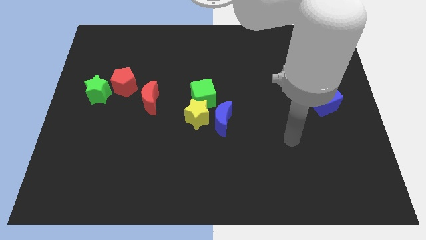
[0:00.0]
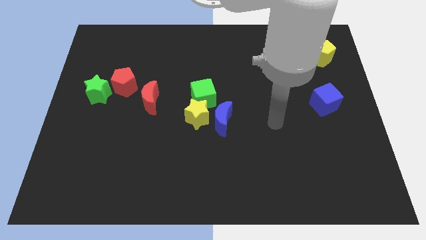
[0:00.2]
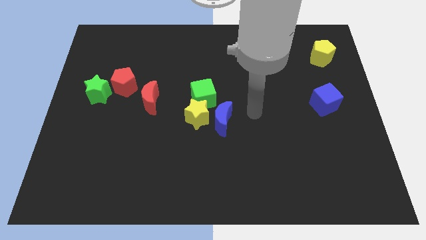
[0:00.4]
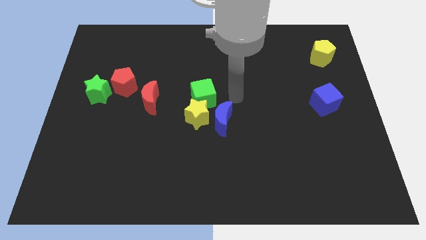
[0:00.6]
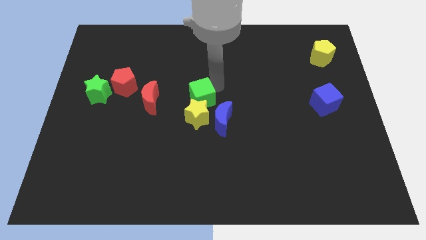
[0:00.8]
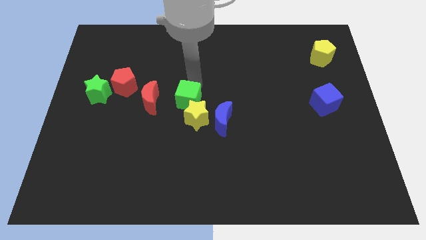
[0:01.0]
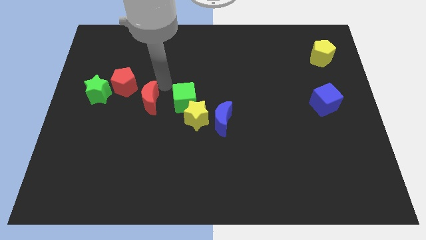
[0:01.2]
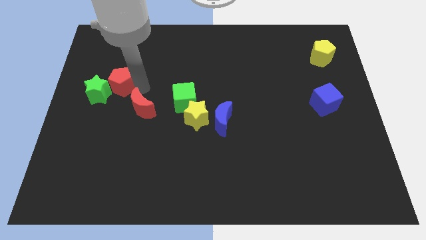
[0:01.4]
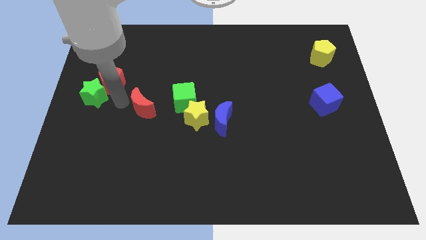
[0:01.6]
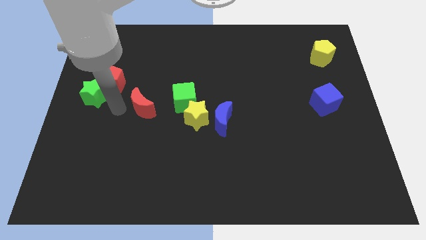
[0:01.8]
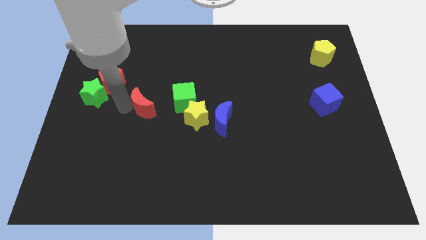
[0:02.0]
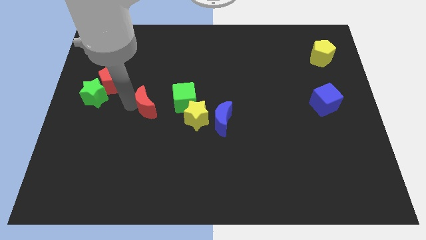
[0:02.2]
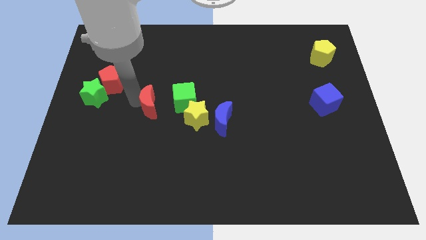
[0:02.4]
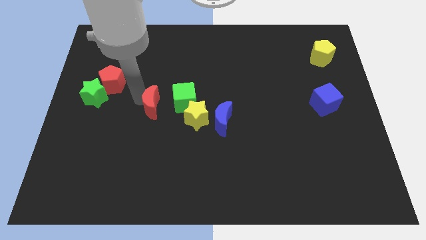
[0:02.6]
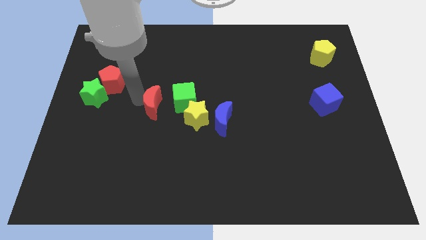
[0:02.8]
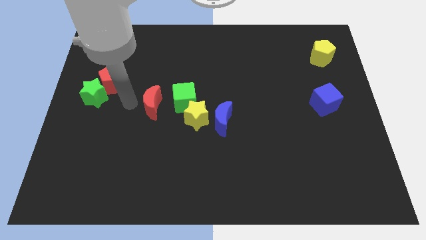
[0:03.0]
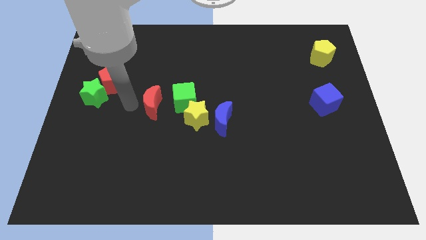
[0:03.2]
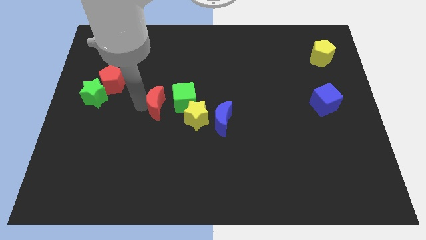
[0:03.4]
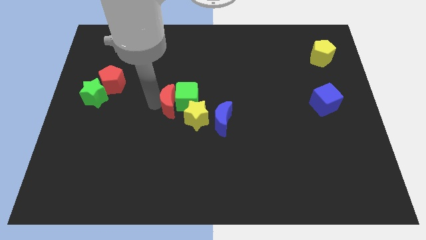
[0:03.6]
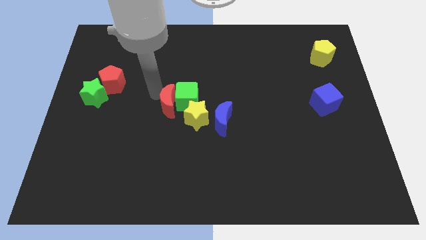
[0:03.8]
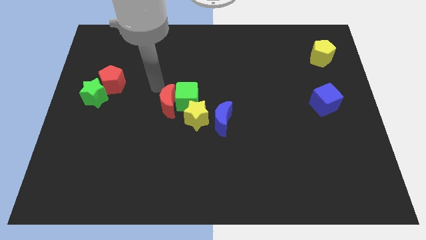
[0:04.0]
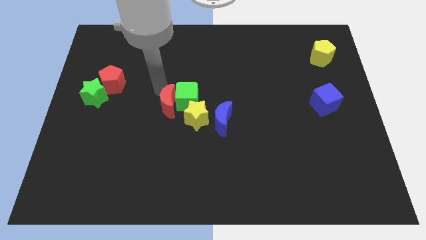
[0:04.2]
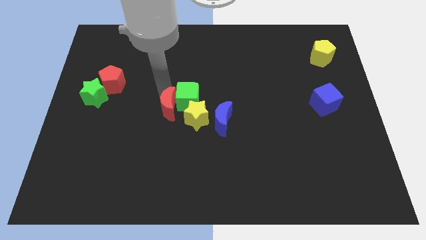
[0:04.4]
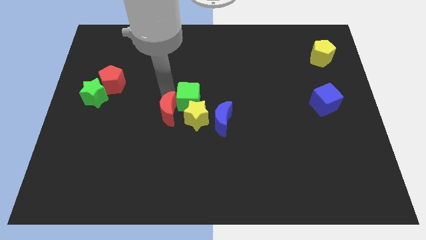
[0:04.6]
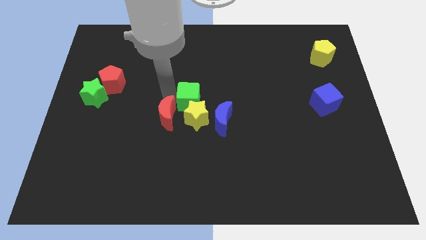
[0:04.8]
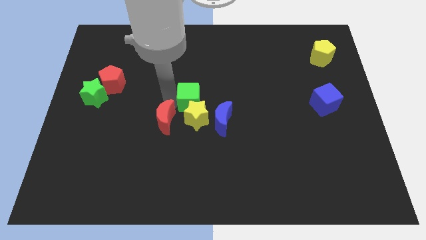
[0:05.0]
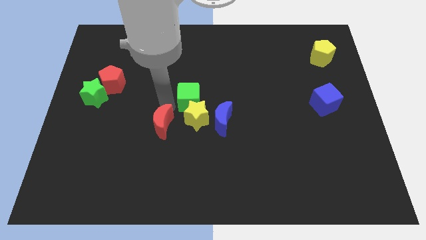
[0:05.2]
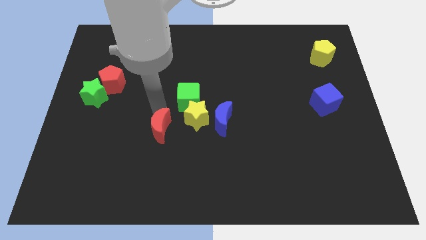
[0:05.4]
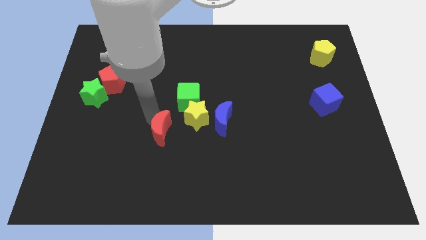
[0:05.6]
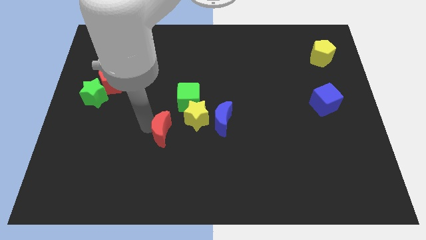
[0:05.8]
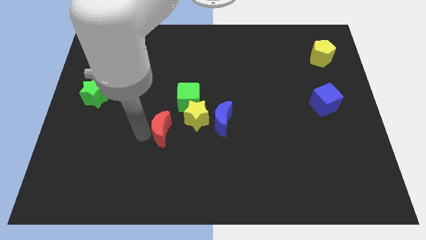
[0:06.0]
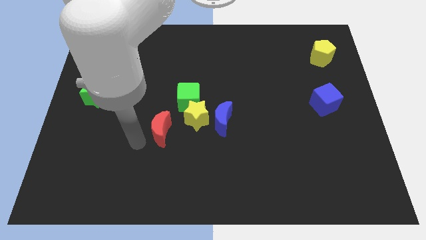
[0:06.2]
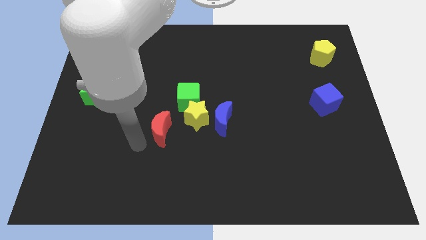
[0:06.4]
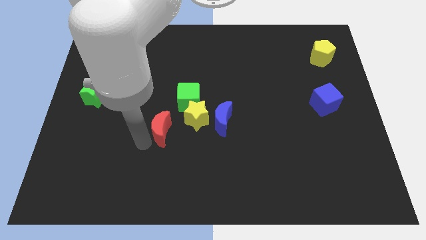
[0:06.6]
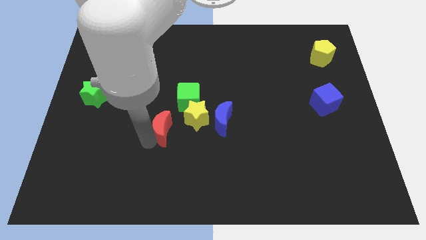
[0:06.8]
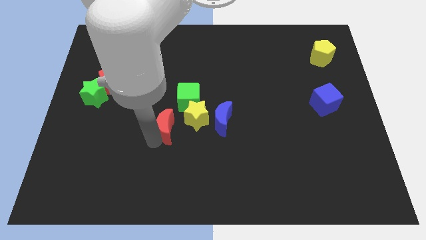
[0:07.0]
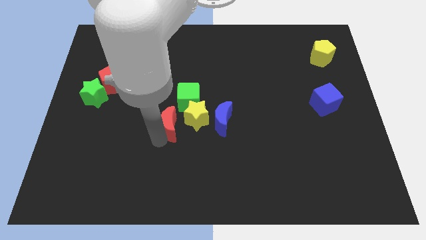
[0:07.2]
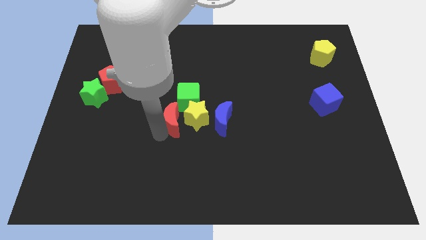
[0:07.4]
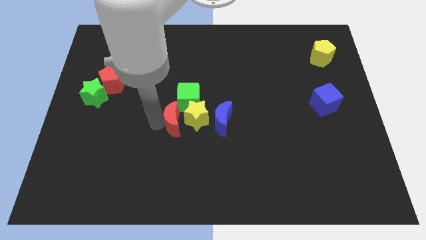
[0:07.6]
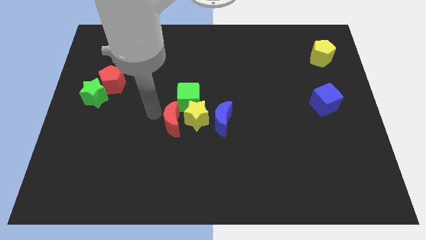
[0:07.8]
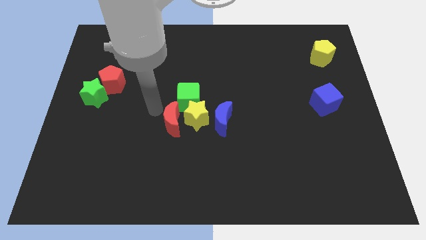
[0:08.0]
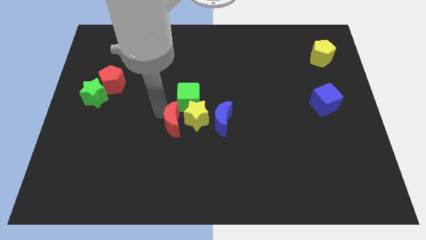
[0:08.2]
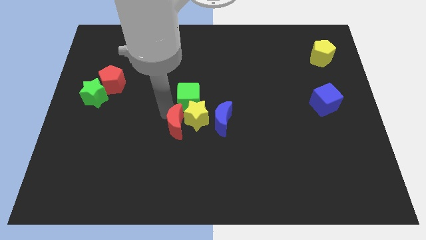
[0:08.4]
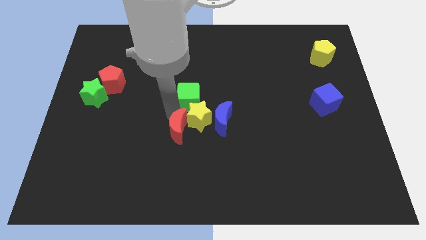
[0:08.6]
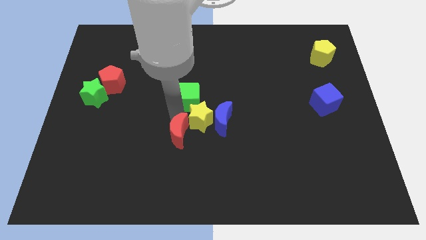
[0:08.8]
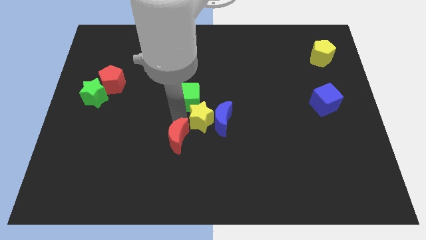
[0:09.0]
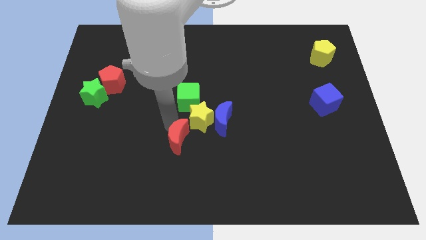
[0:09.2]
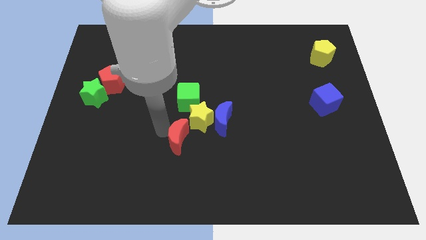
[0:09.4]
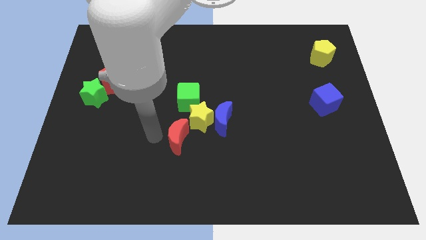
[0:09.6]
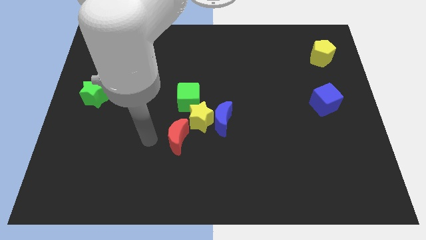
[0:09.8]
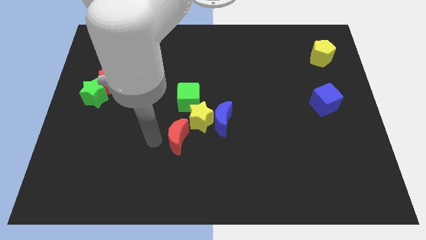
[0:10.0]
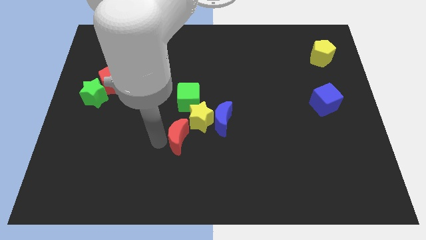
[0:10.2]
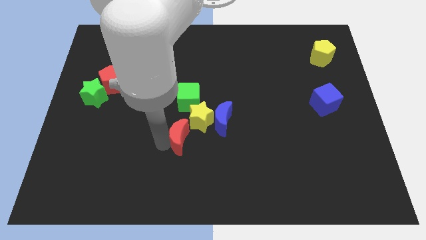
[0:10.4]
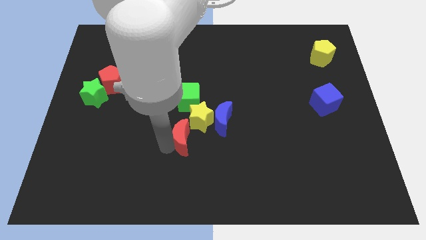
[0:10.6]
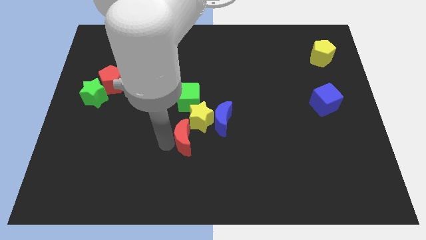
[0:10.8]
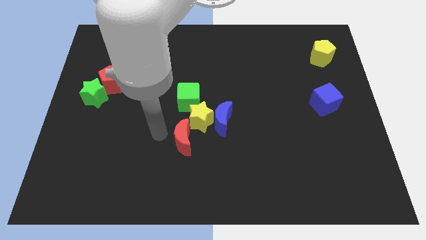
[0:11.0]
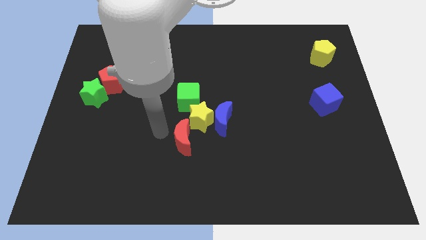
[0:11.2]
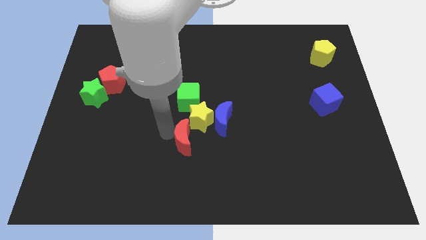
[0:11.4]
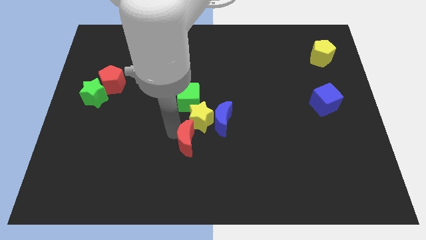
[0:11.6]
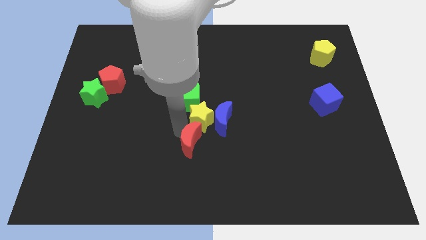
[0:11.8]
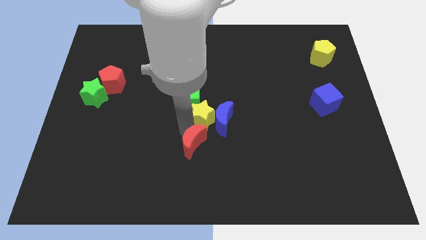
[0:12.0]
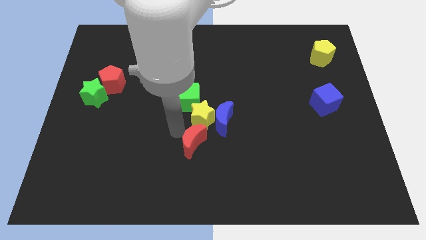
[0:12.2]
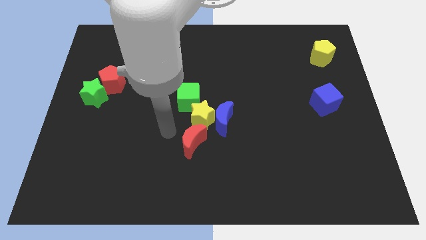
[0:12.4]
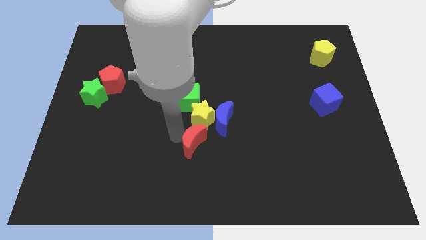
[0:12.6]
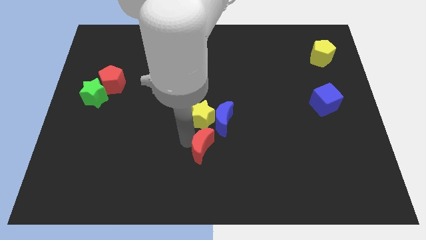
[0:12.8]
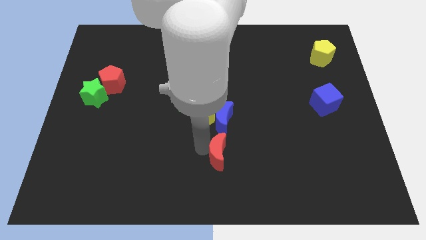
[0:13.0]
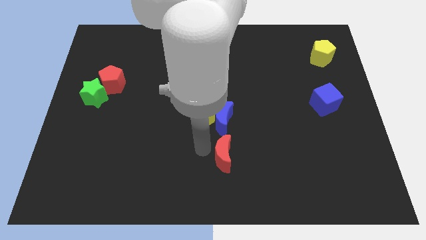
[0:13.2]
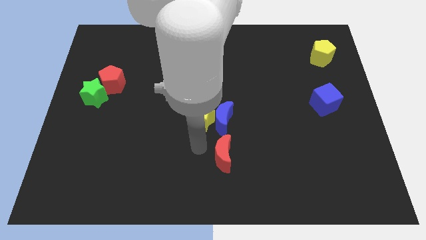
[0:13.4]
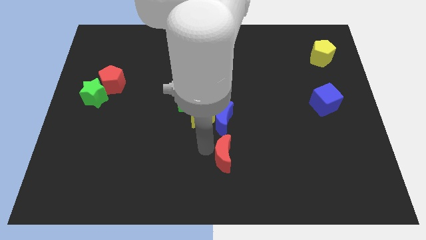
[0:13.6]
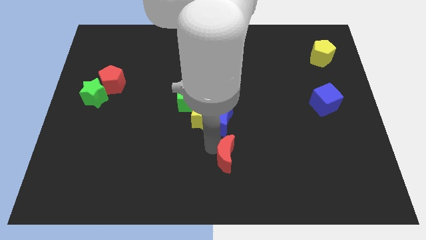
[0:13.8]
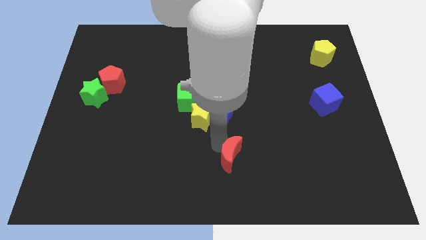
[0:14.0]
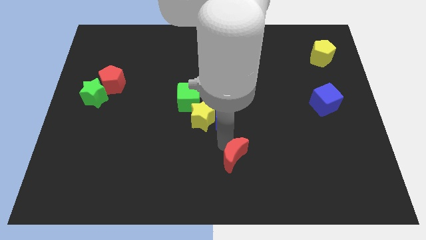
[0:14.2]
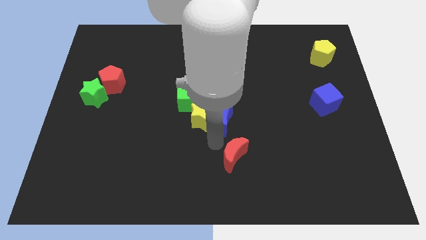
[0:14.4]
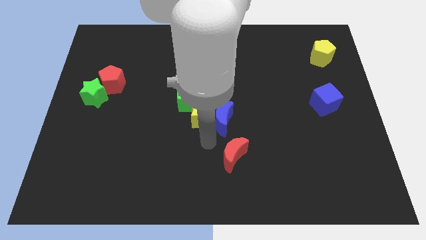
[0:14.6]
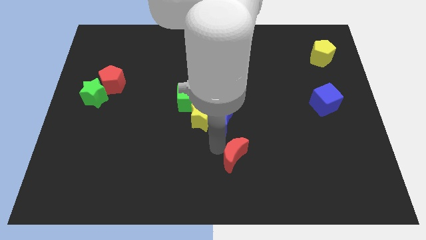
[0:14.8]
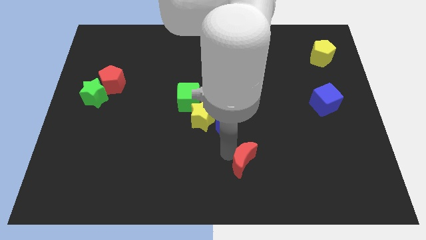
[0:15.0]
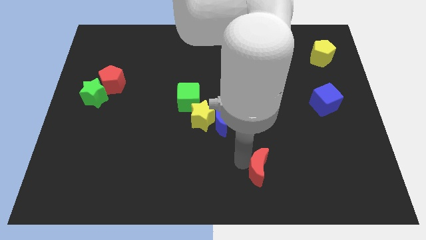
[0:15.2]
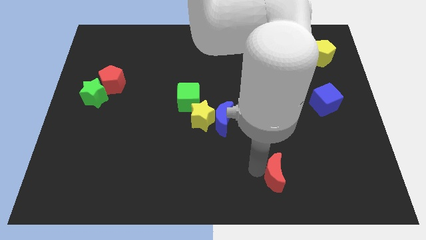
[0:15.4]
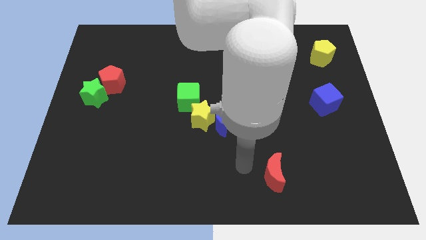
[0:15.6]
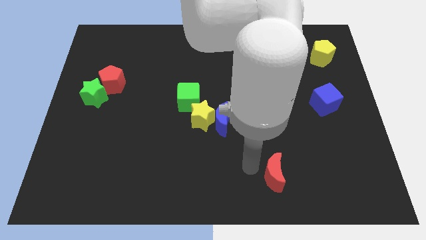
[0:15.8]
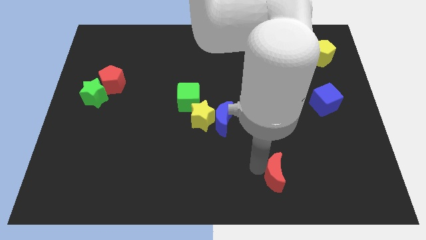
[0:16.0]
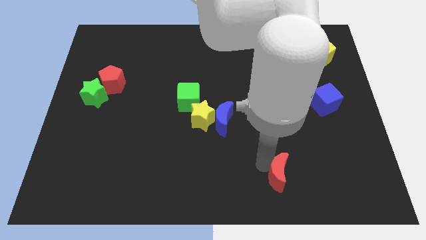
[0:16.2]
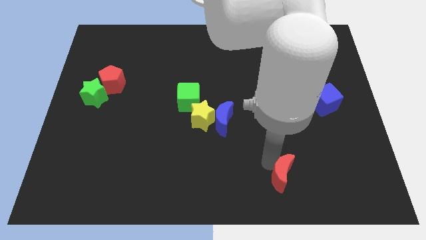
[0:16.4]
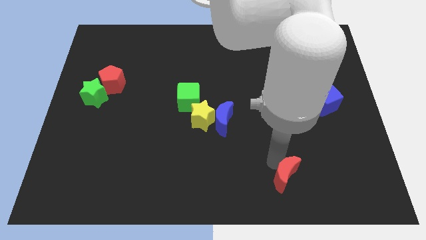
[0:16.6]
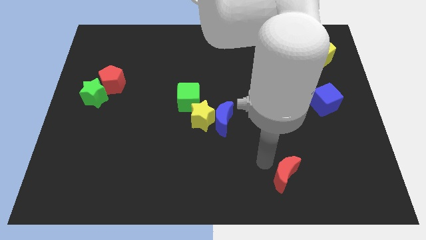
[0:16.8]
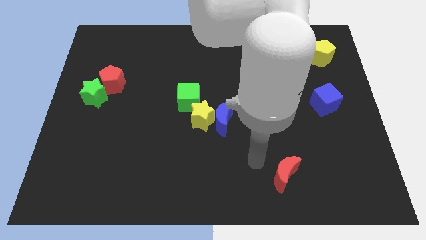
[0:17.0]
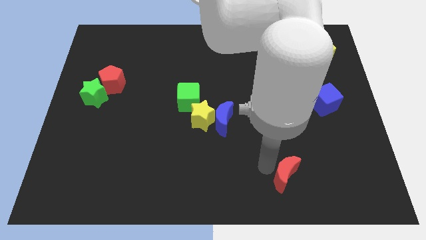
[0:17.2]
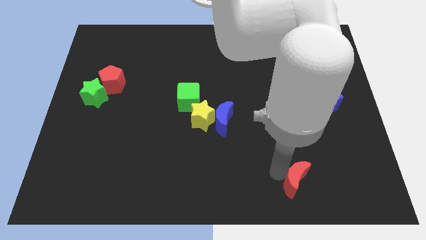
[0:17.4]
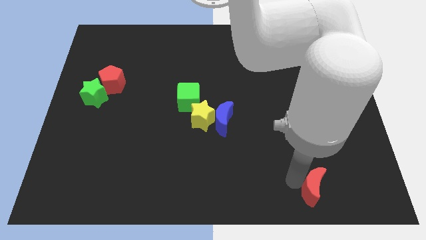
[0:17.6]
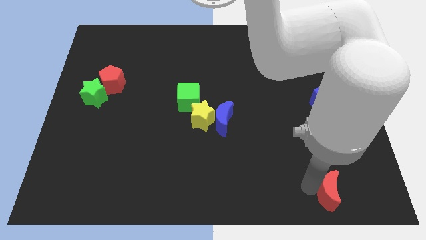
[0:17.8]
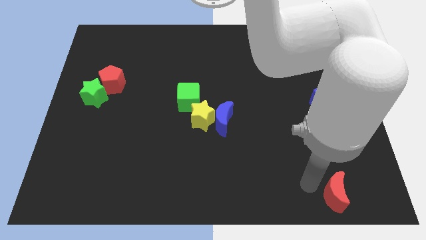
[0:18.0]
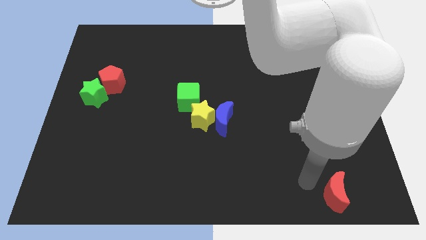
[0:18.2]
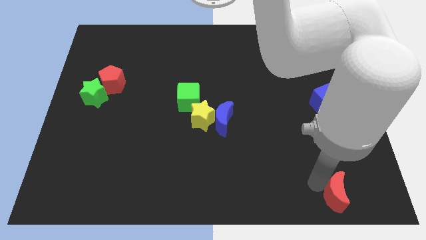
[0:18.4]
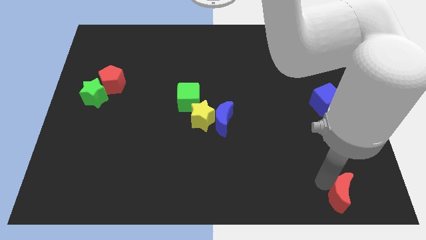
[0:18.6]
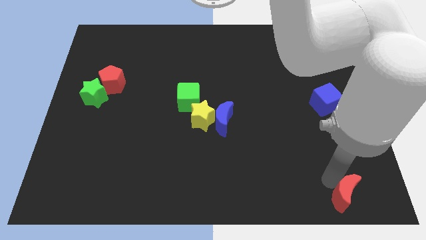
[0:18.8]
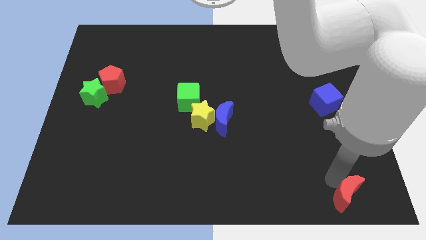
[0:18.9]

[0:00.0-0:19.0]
push the red moon to the lower right corner
